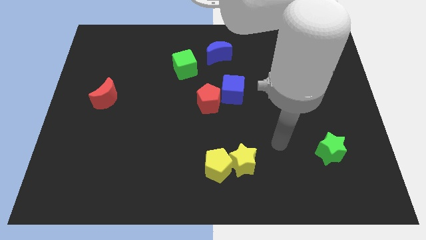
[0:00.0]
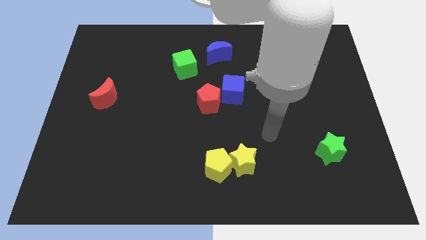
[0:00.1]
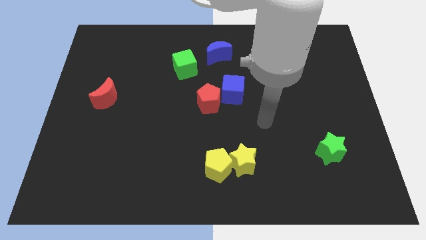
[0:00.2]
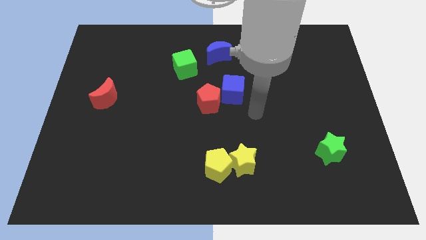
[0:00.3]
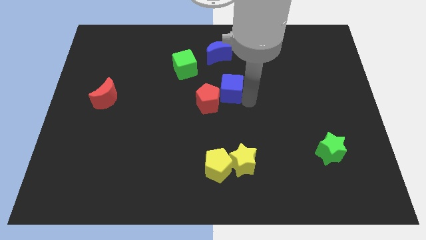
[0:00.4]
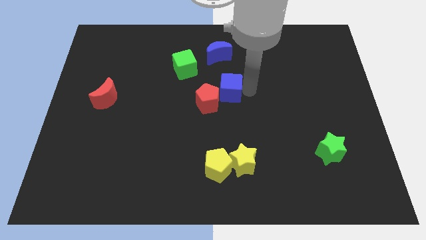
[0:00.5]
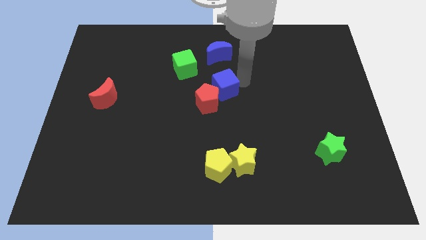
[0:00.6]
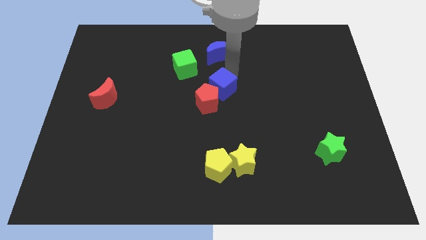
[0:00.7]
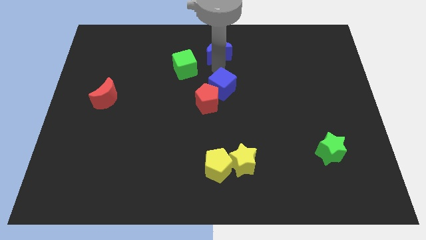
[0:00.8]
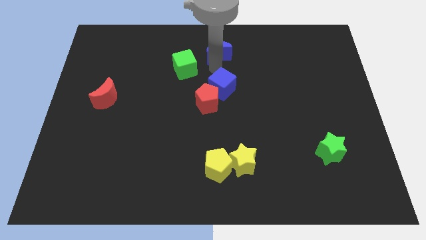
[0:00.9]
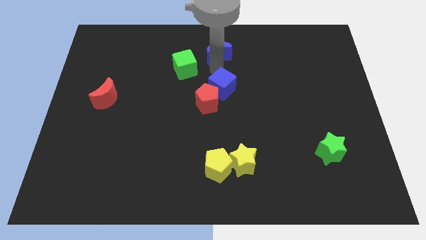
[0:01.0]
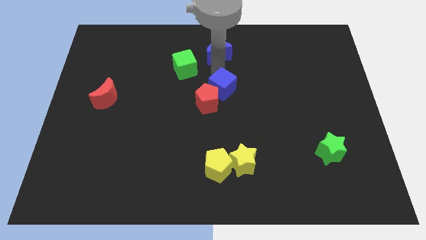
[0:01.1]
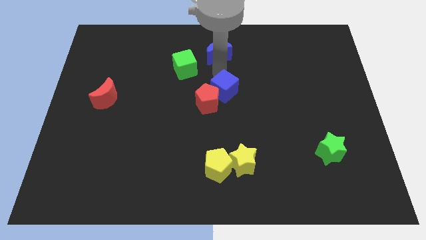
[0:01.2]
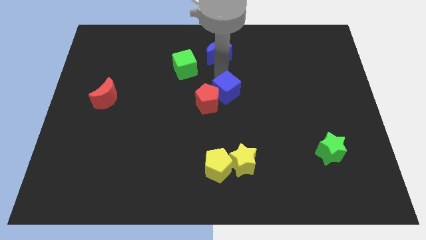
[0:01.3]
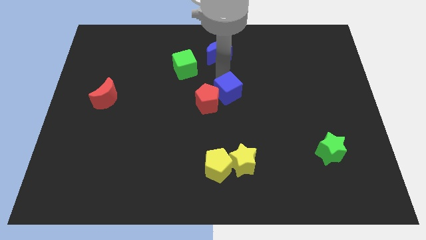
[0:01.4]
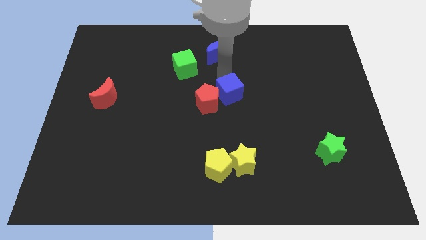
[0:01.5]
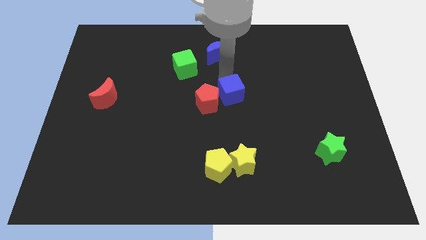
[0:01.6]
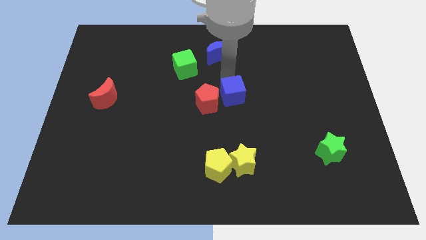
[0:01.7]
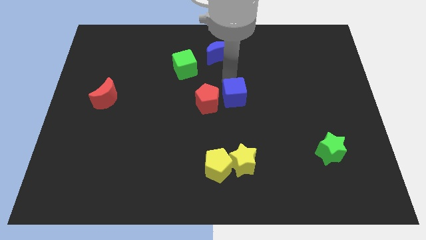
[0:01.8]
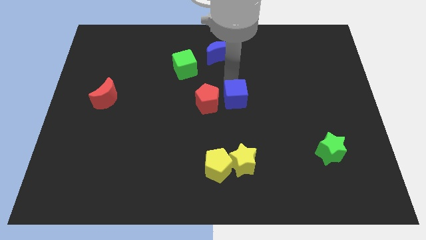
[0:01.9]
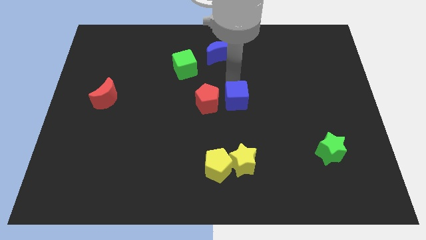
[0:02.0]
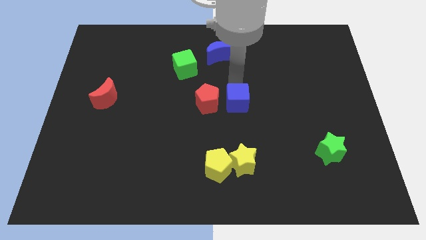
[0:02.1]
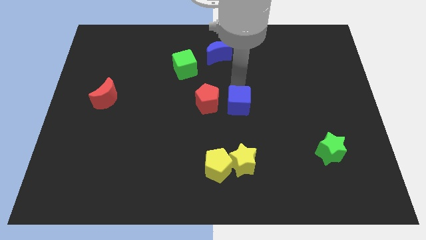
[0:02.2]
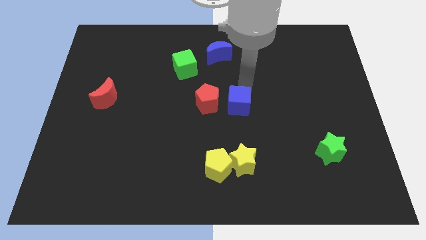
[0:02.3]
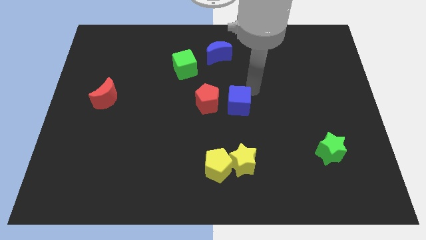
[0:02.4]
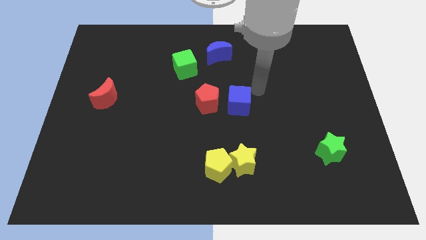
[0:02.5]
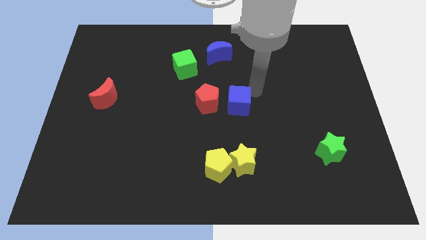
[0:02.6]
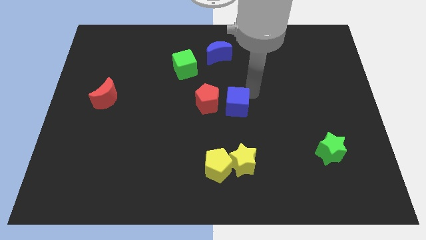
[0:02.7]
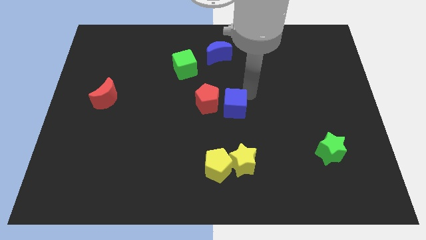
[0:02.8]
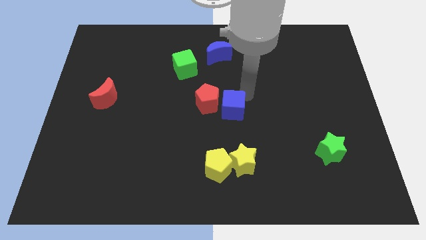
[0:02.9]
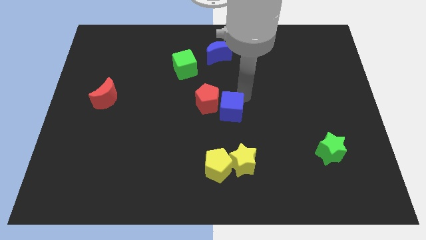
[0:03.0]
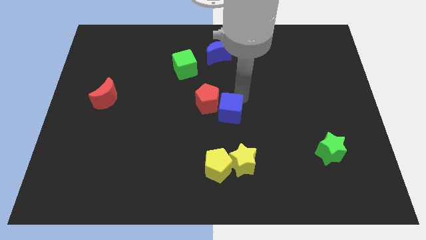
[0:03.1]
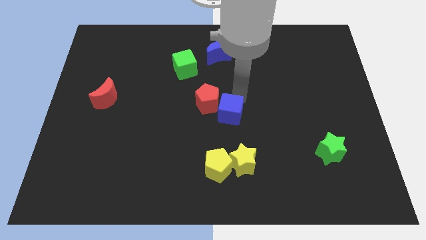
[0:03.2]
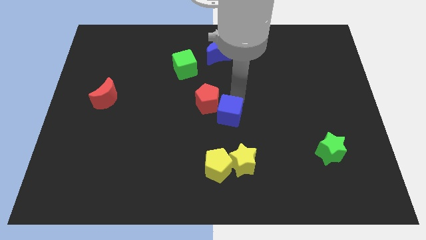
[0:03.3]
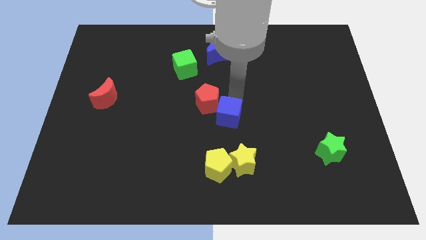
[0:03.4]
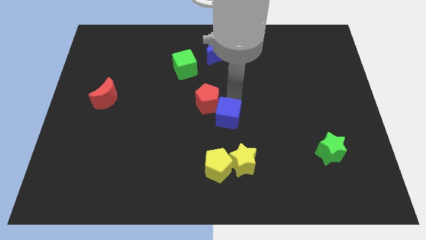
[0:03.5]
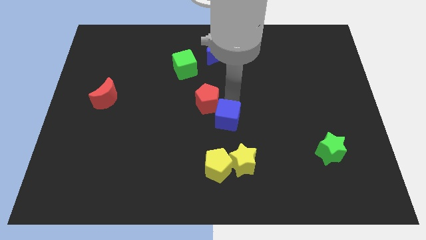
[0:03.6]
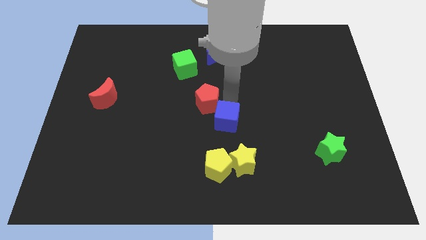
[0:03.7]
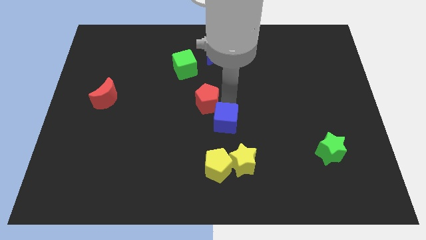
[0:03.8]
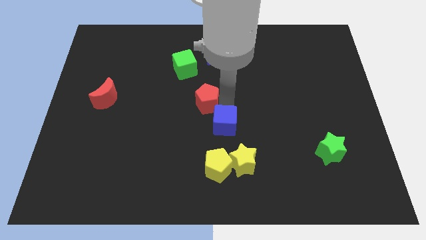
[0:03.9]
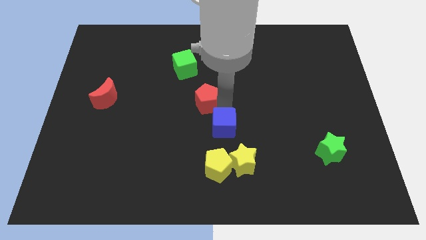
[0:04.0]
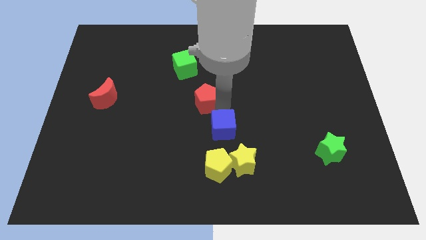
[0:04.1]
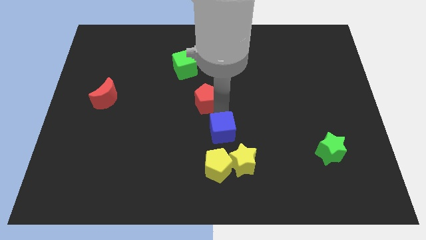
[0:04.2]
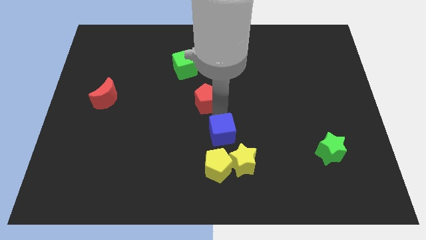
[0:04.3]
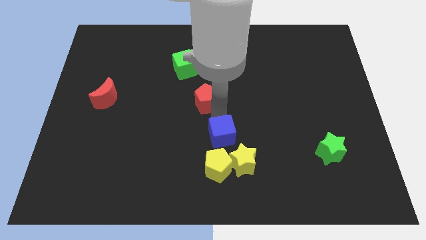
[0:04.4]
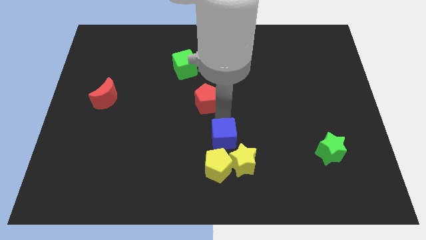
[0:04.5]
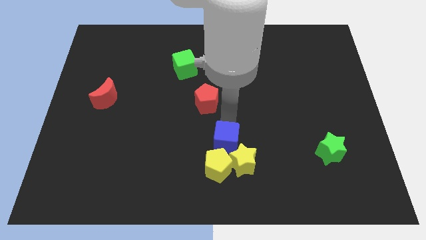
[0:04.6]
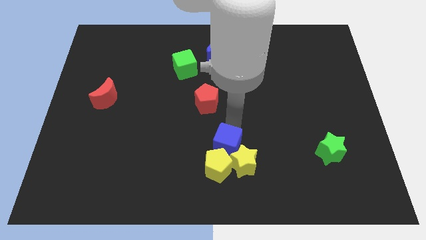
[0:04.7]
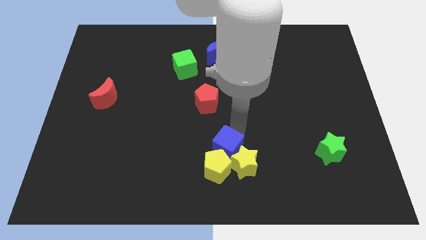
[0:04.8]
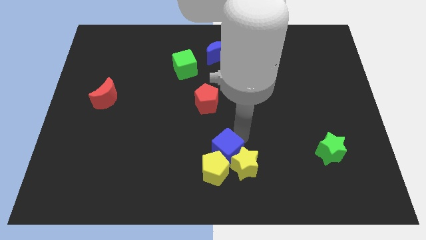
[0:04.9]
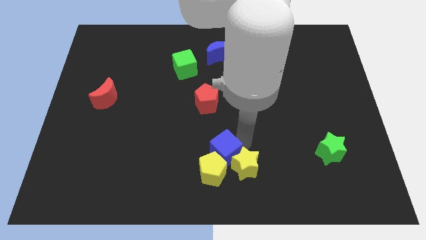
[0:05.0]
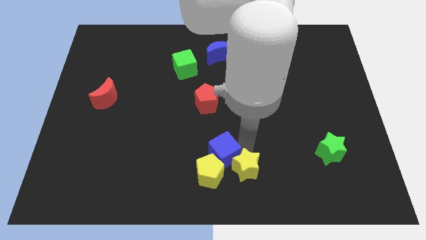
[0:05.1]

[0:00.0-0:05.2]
move the blue cube to the bottom

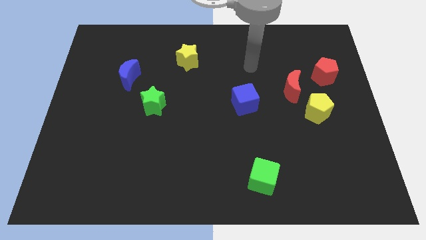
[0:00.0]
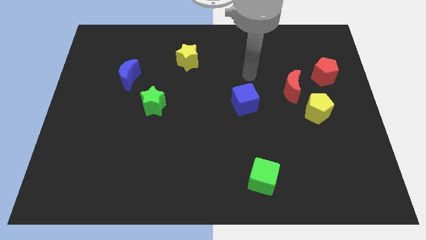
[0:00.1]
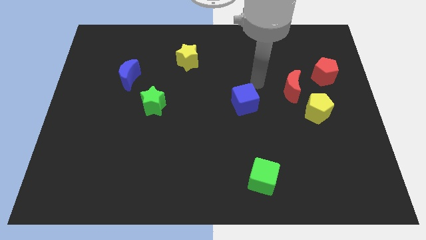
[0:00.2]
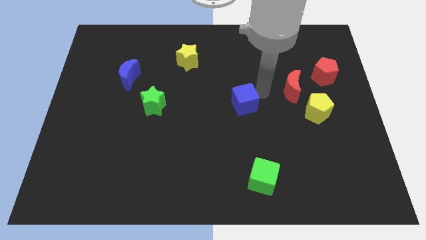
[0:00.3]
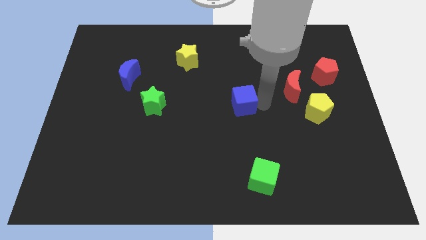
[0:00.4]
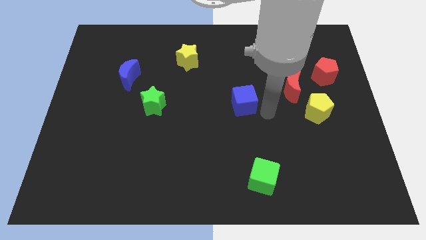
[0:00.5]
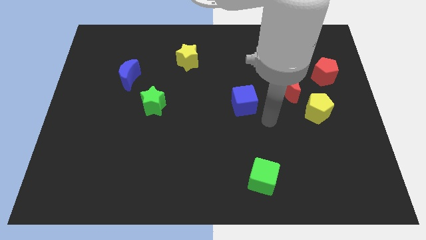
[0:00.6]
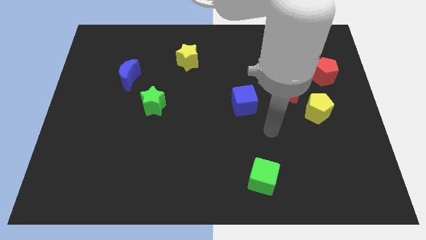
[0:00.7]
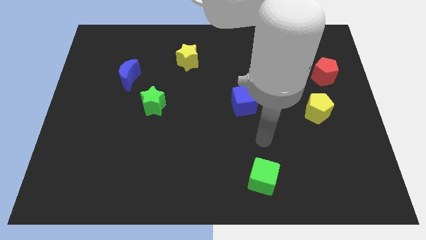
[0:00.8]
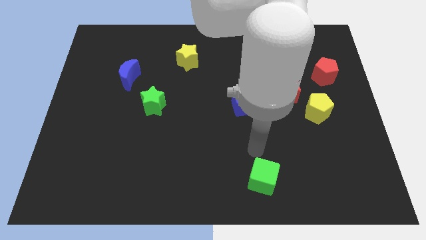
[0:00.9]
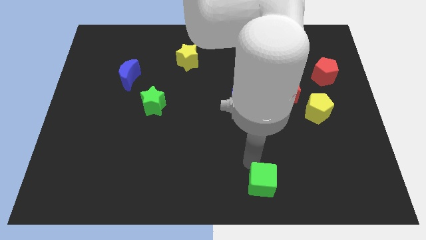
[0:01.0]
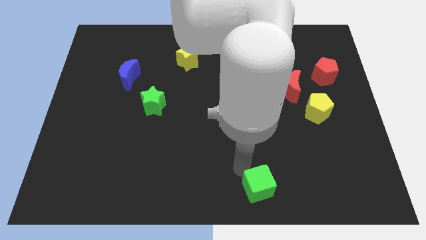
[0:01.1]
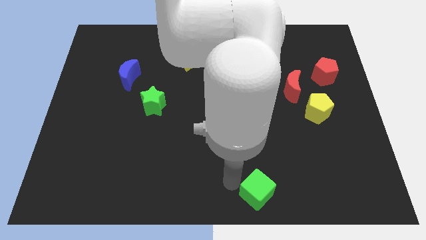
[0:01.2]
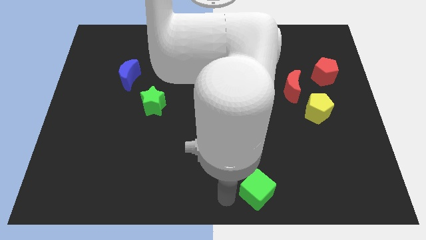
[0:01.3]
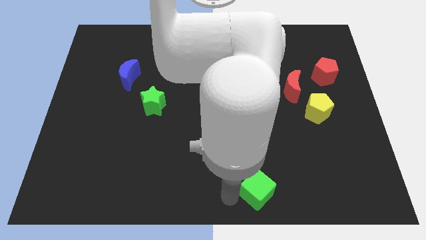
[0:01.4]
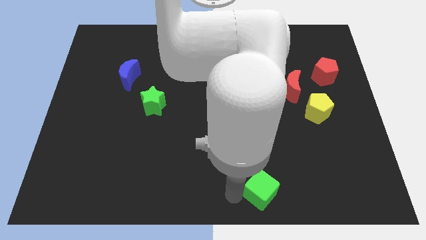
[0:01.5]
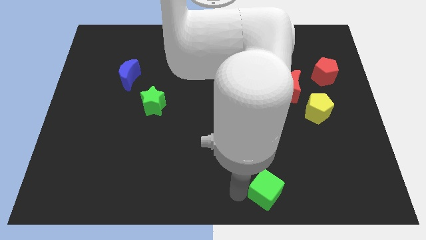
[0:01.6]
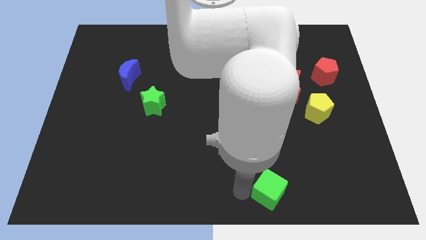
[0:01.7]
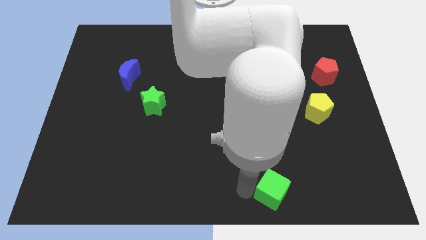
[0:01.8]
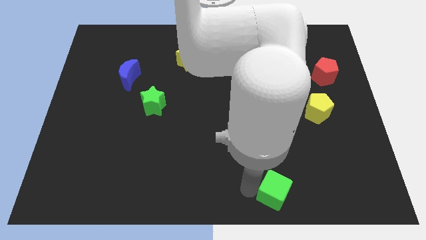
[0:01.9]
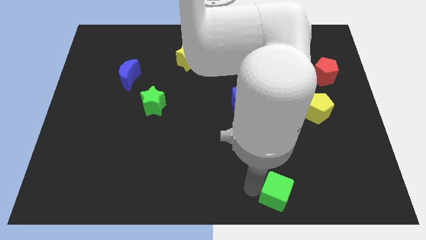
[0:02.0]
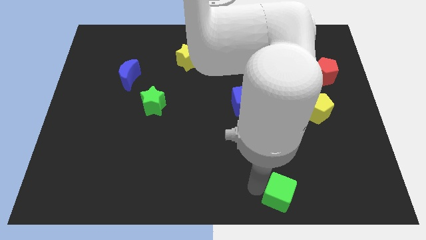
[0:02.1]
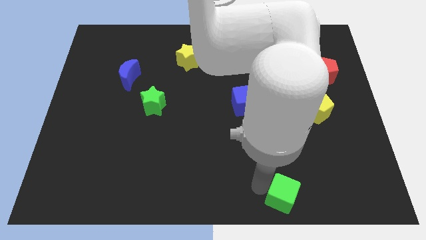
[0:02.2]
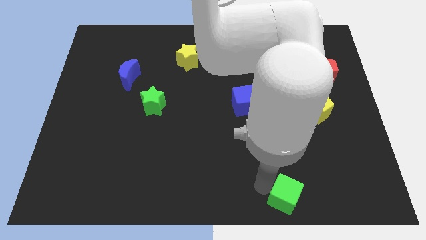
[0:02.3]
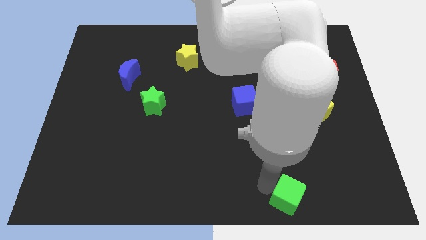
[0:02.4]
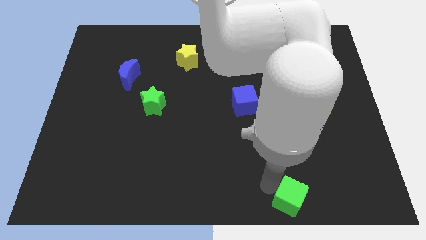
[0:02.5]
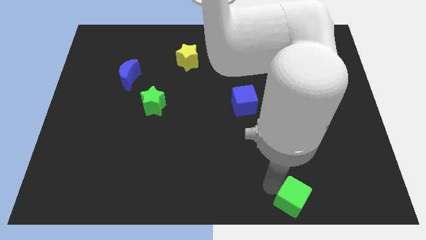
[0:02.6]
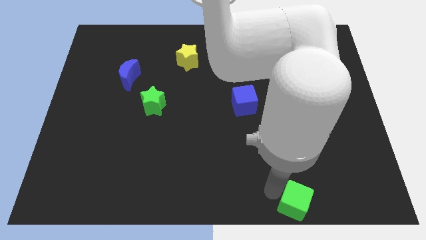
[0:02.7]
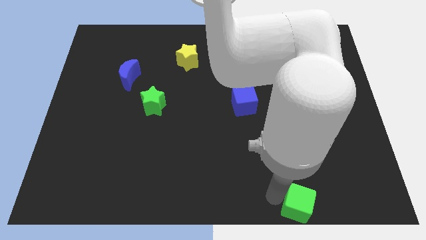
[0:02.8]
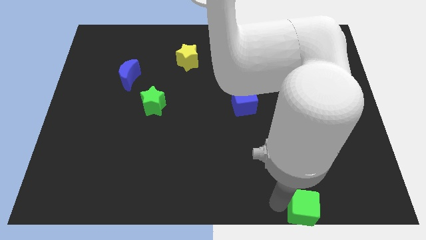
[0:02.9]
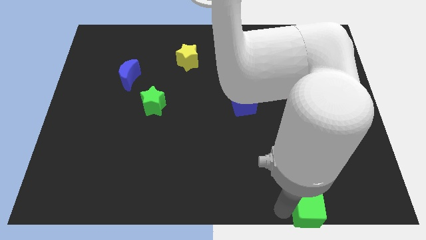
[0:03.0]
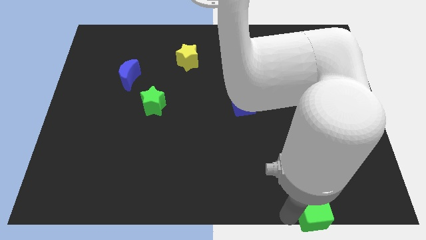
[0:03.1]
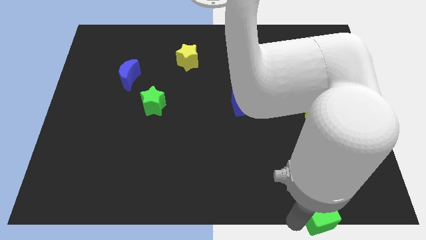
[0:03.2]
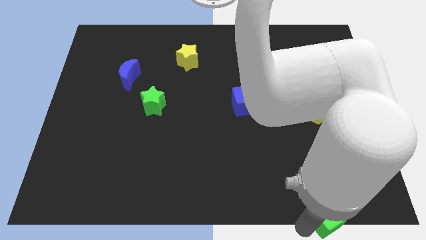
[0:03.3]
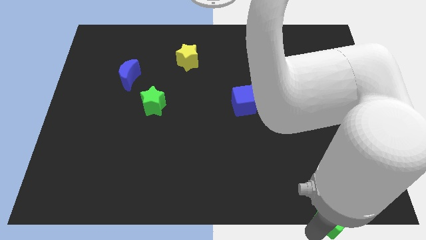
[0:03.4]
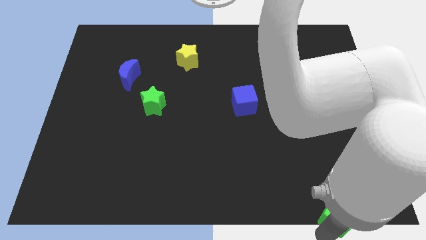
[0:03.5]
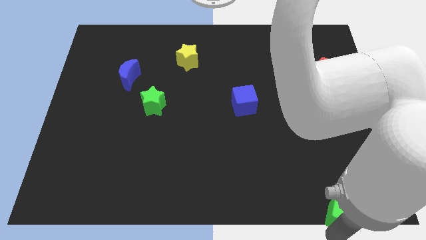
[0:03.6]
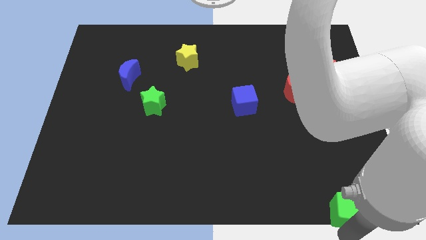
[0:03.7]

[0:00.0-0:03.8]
put the green cube to the bottom right corner
